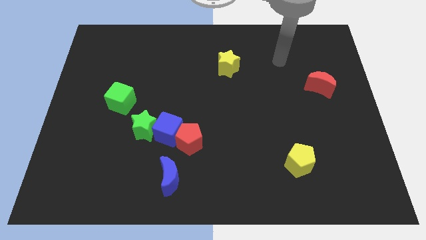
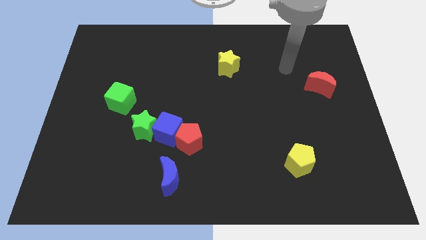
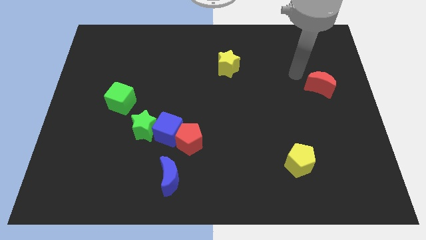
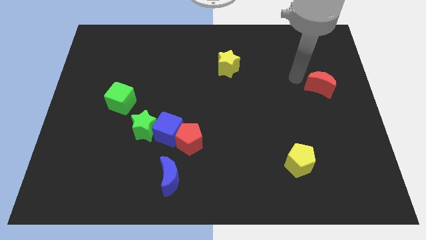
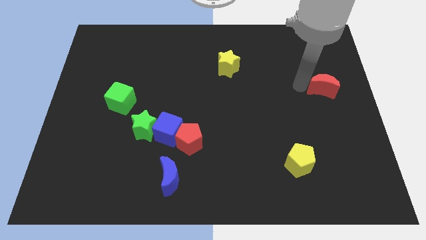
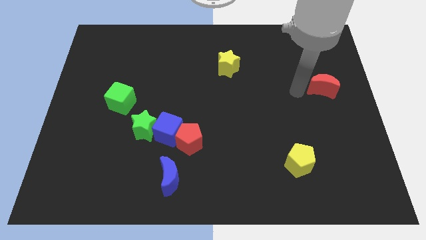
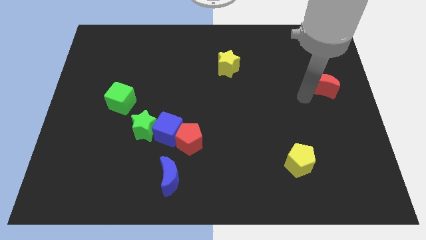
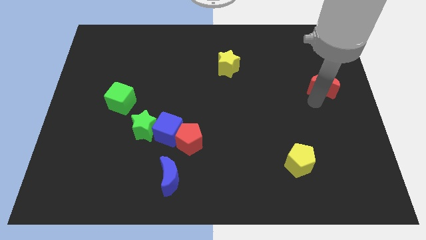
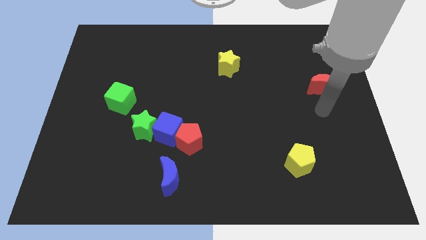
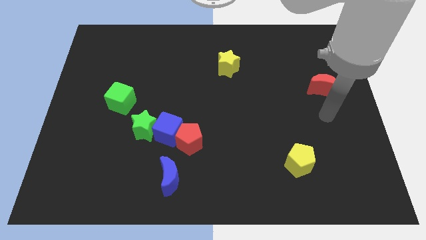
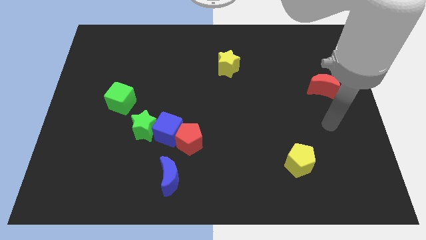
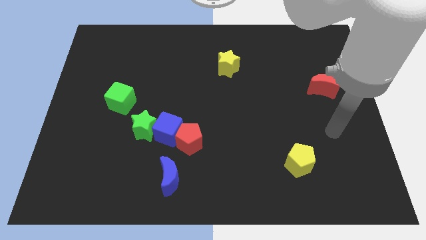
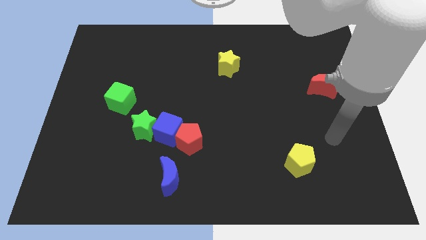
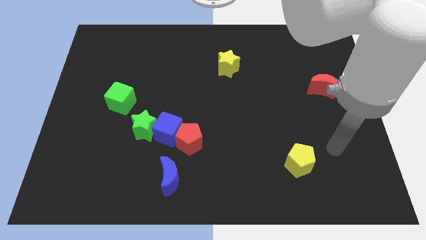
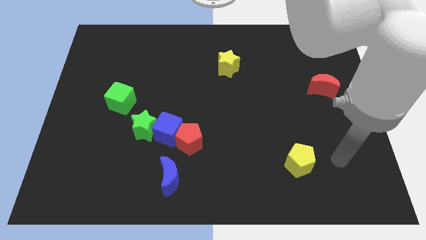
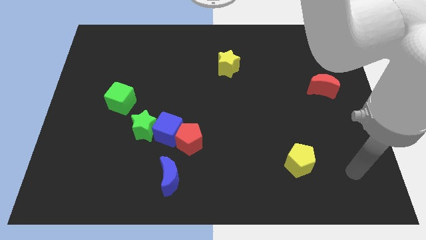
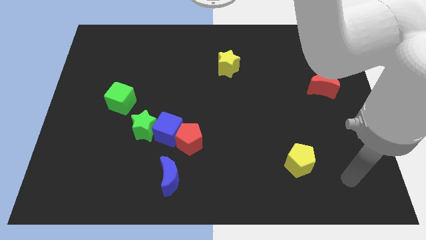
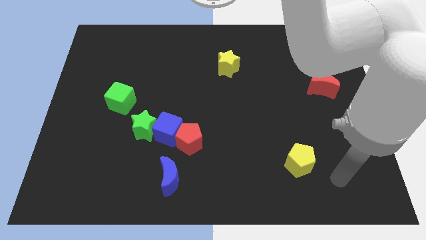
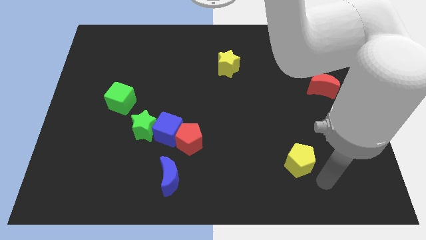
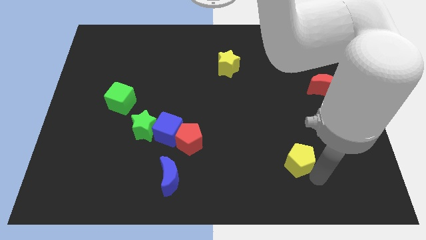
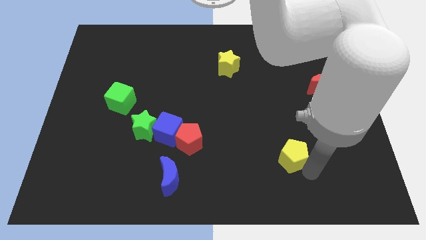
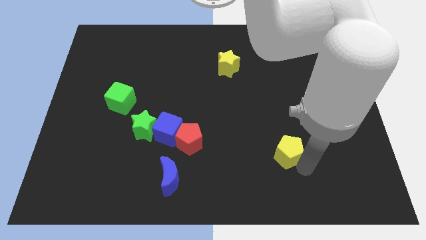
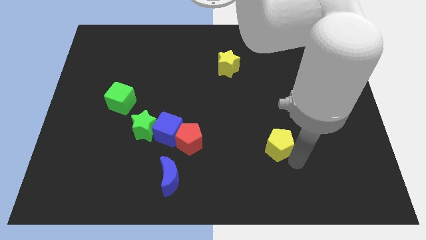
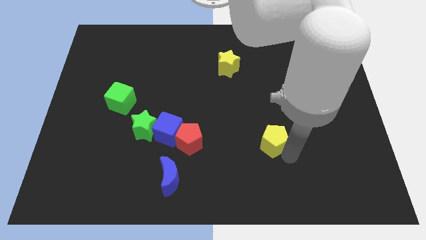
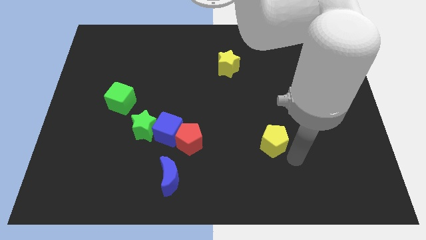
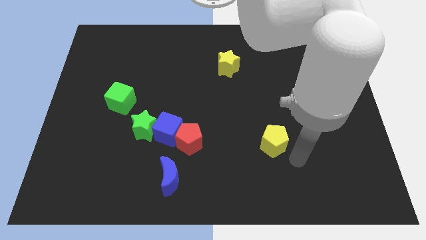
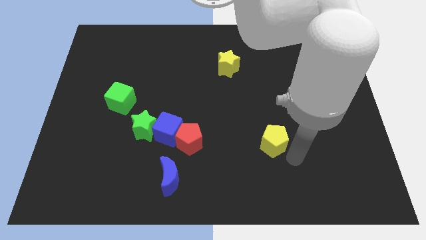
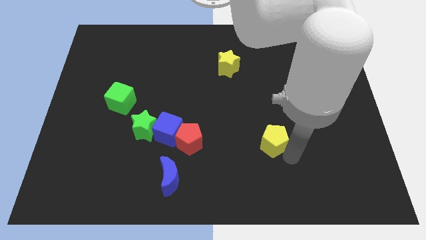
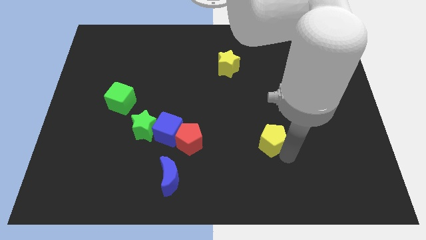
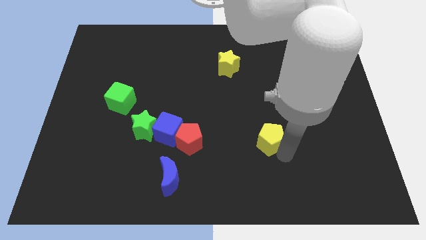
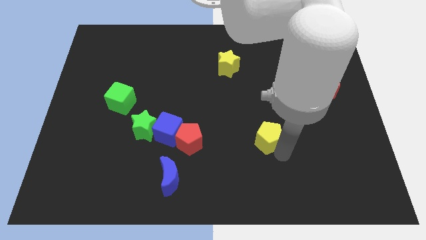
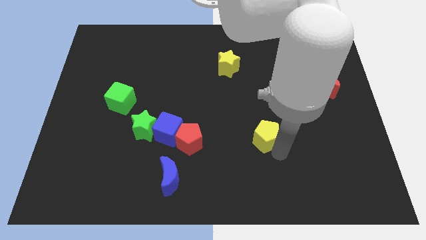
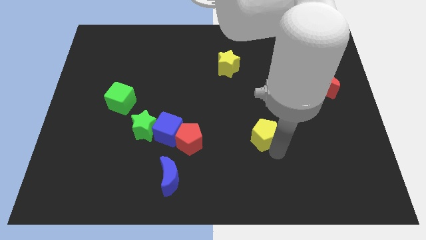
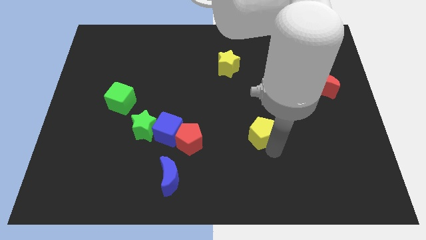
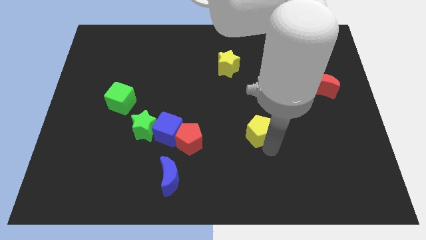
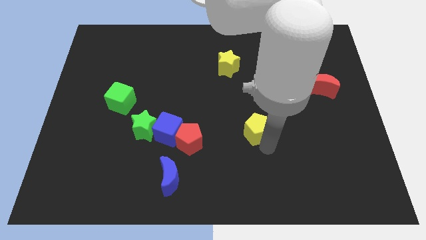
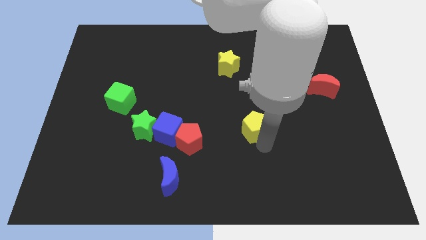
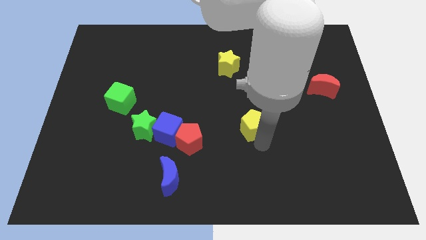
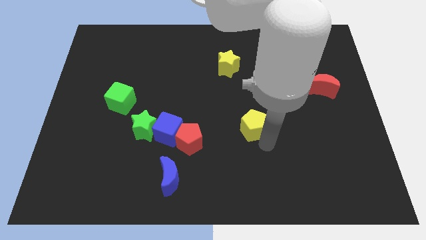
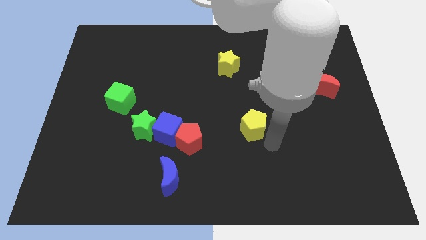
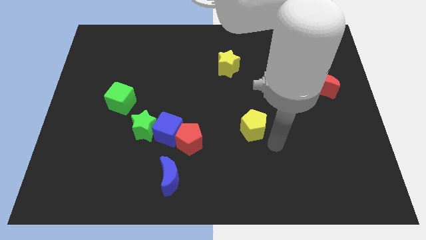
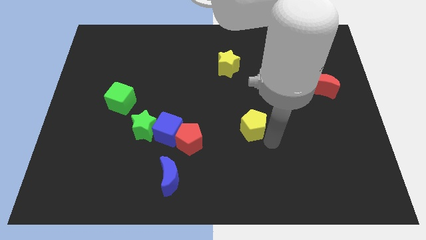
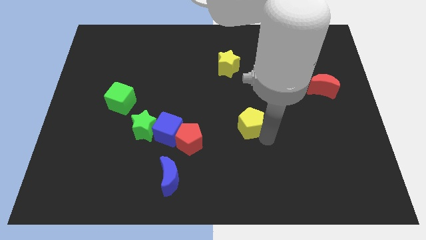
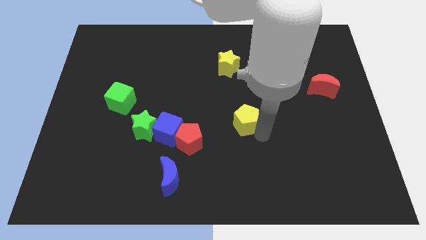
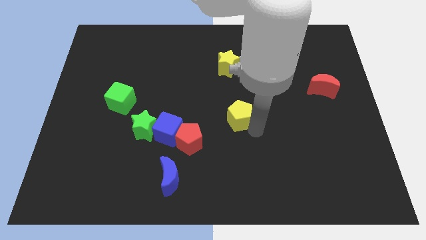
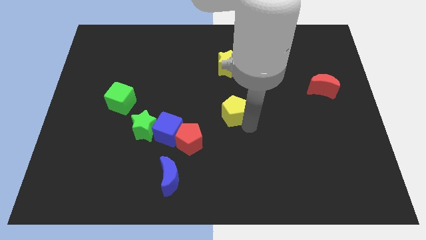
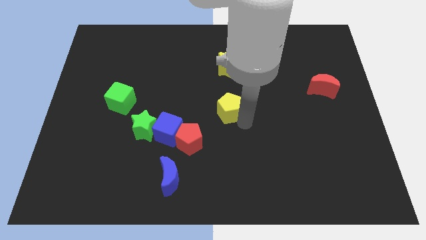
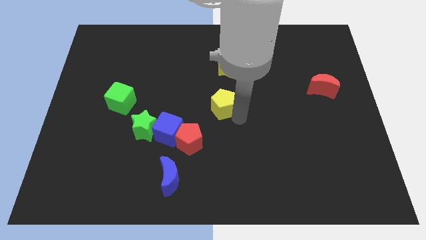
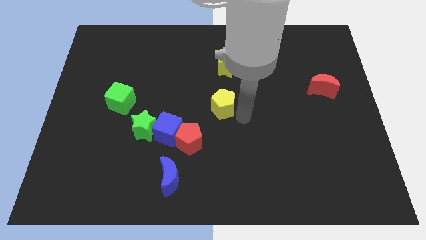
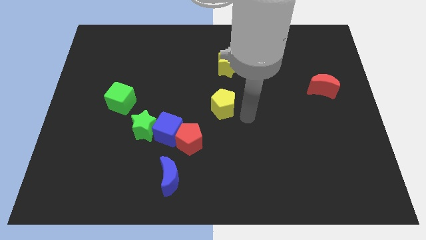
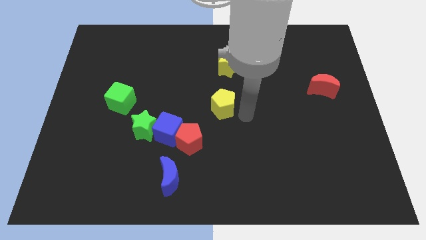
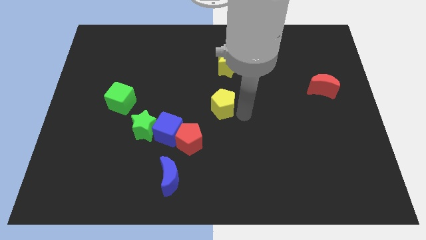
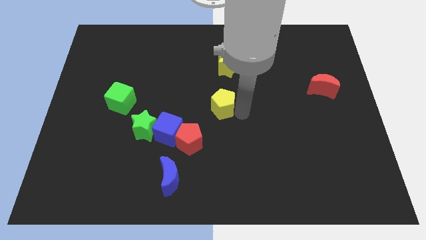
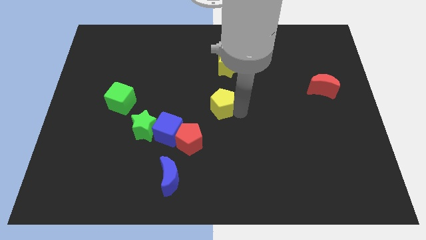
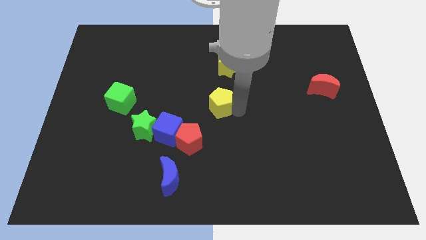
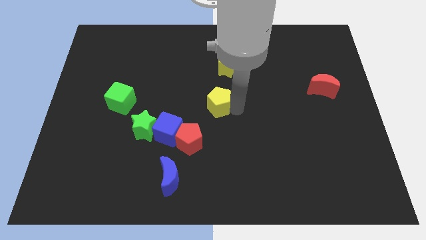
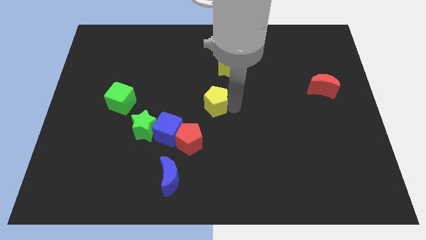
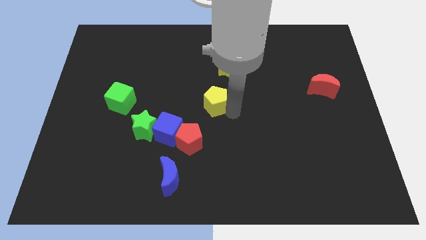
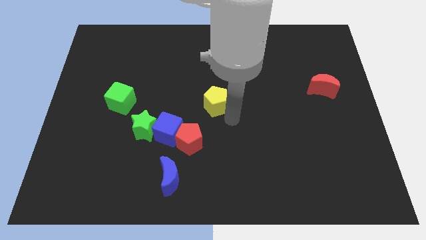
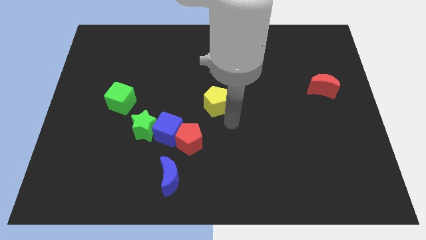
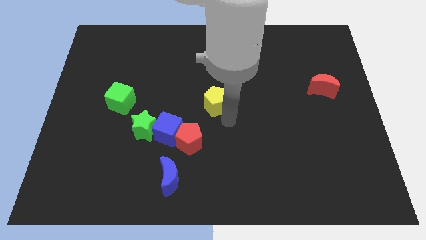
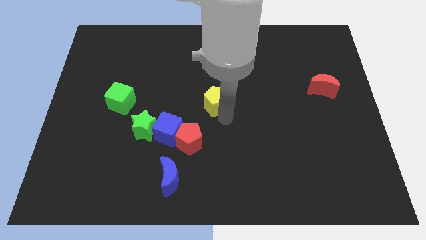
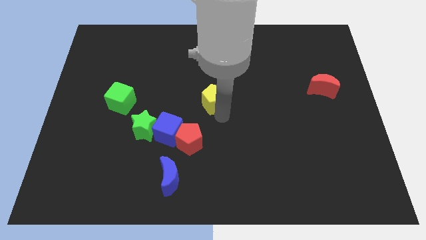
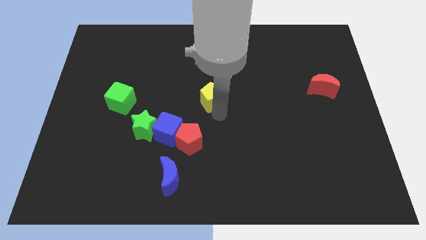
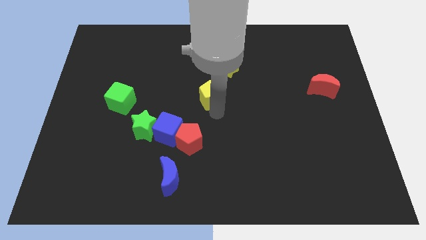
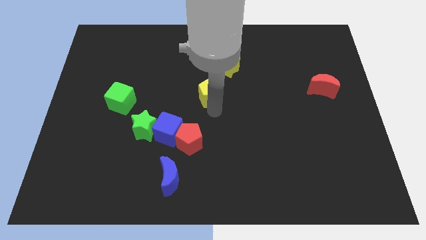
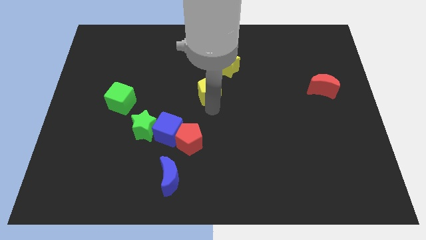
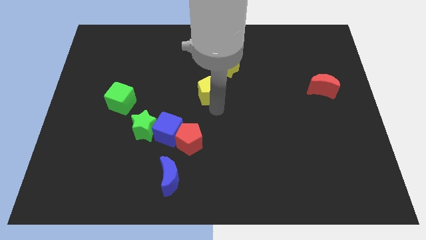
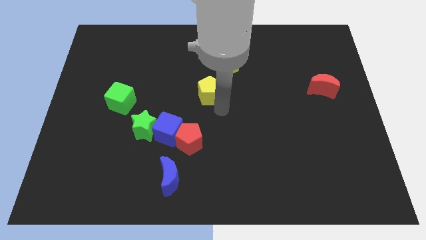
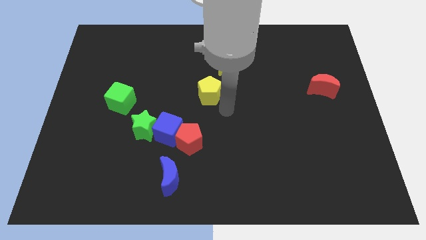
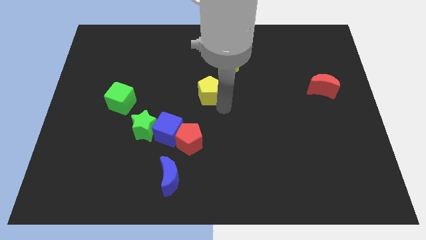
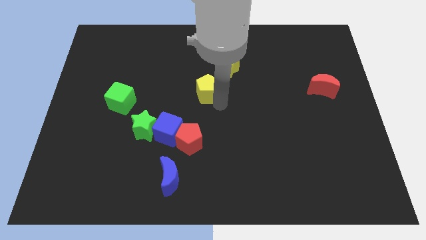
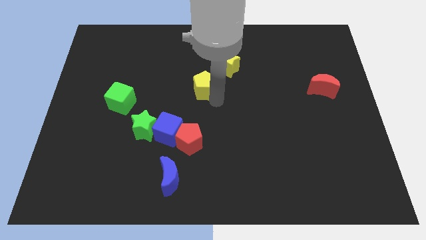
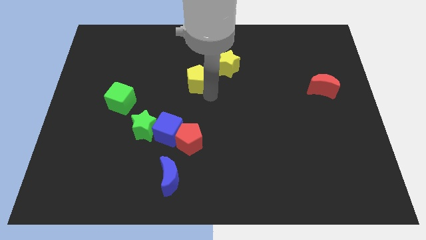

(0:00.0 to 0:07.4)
slide the yellow pentagon to the left of the yellow star
